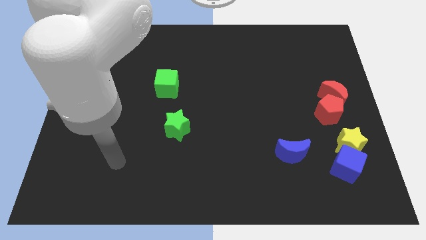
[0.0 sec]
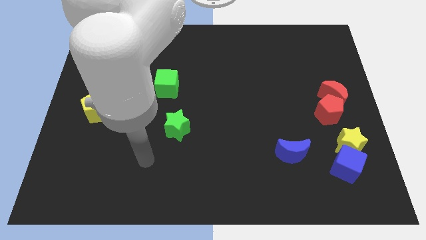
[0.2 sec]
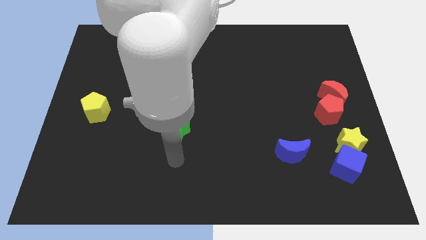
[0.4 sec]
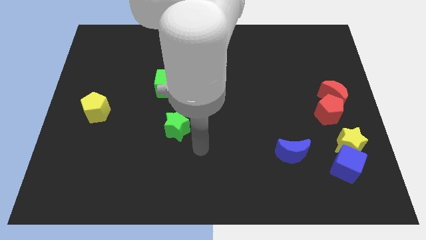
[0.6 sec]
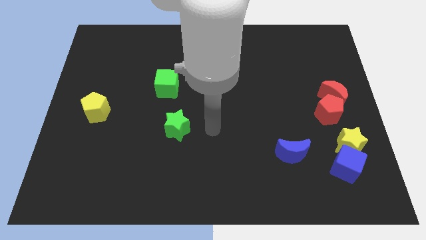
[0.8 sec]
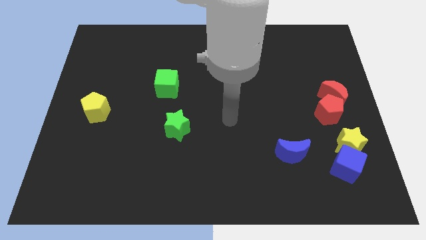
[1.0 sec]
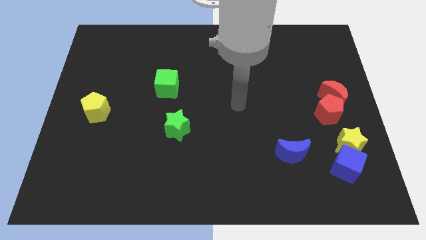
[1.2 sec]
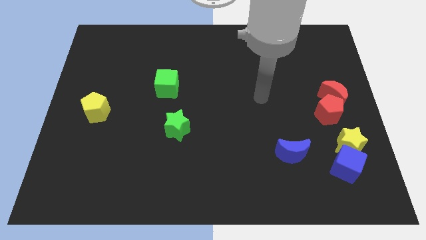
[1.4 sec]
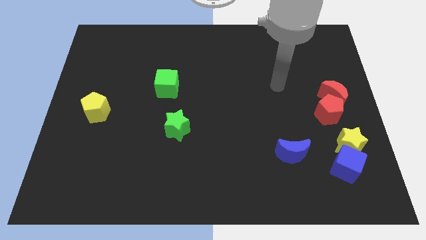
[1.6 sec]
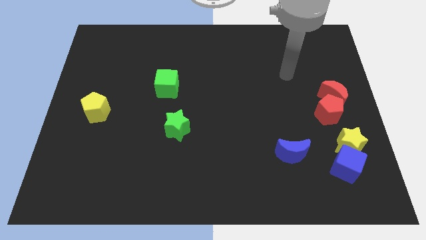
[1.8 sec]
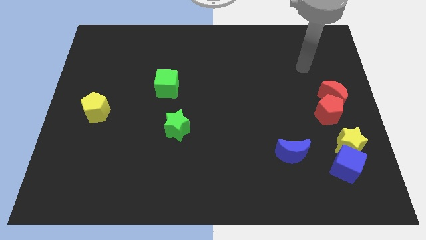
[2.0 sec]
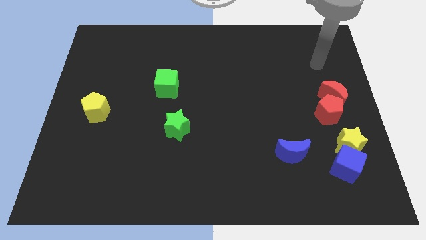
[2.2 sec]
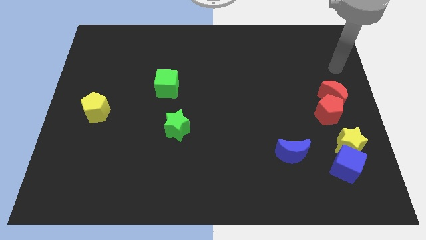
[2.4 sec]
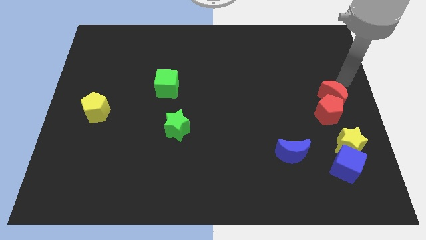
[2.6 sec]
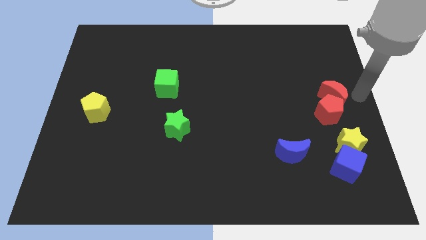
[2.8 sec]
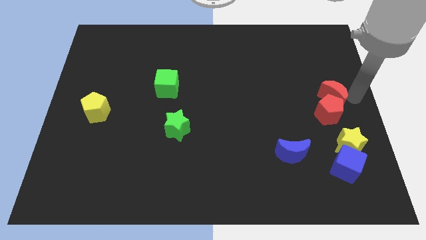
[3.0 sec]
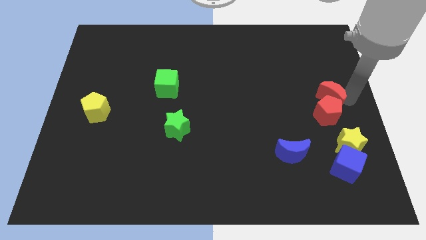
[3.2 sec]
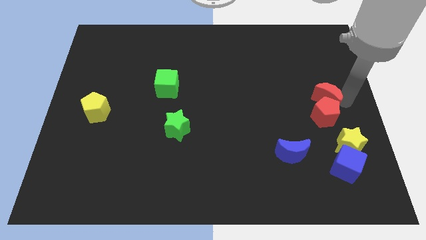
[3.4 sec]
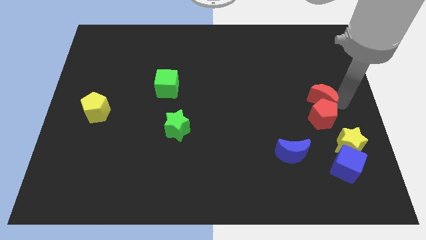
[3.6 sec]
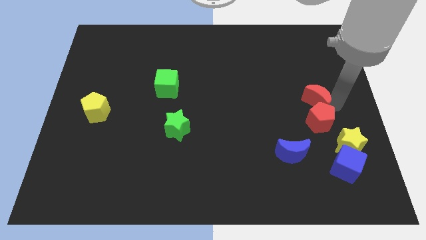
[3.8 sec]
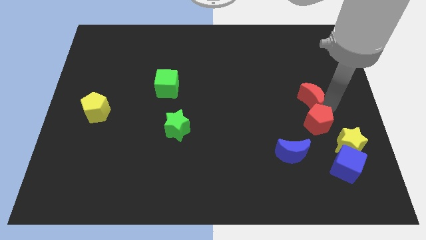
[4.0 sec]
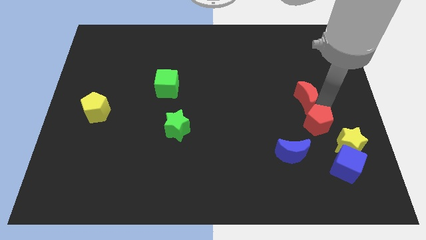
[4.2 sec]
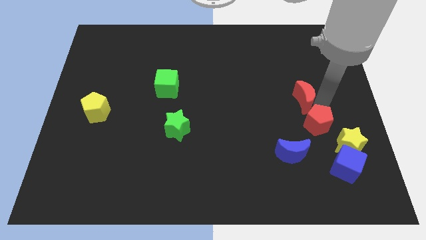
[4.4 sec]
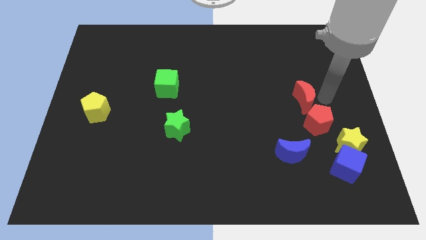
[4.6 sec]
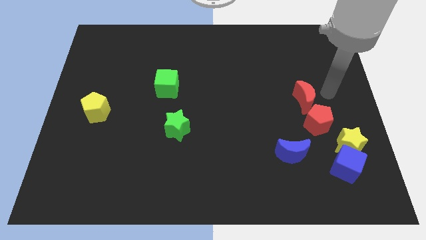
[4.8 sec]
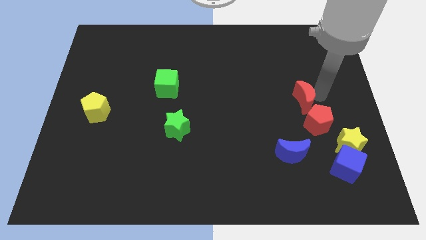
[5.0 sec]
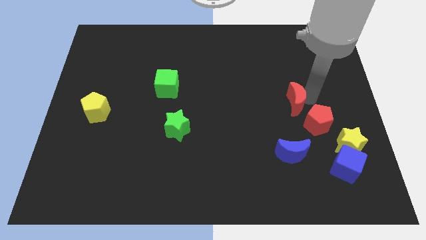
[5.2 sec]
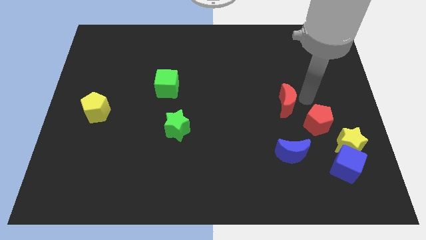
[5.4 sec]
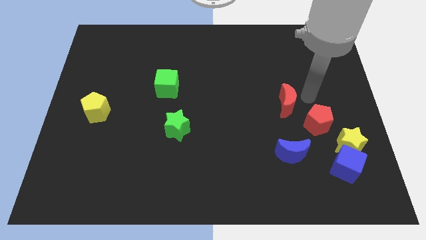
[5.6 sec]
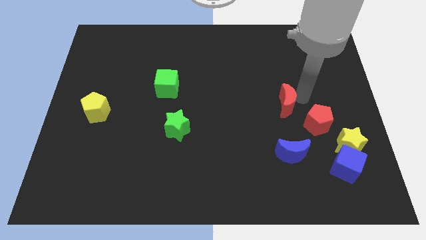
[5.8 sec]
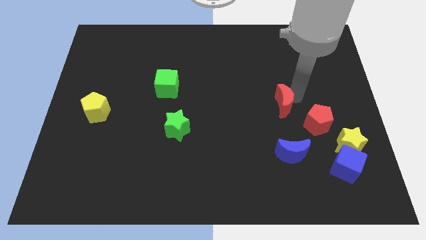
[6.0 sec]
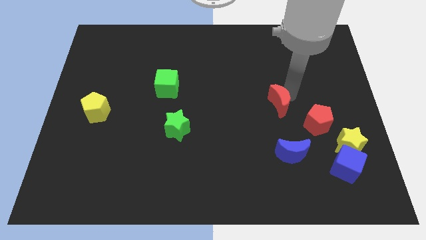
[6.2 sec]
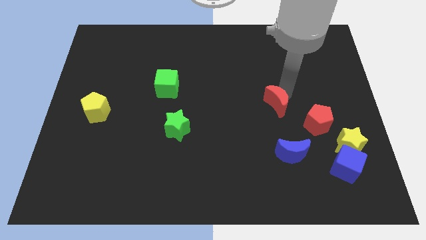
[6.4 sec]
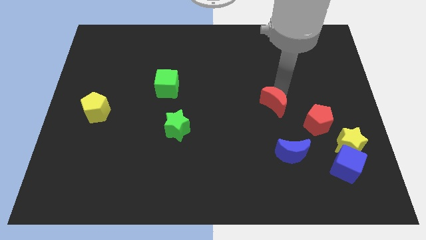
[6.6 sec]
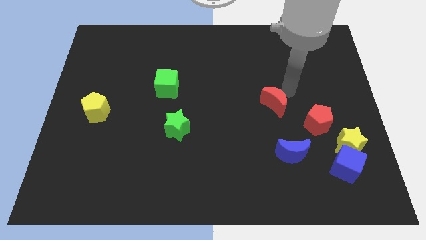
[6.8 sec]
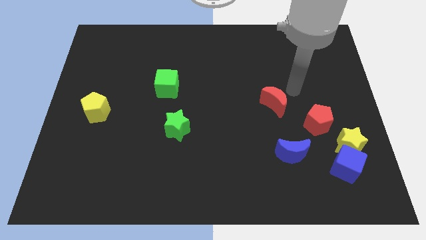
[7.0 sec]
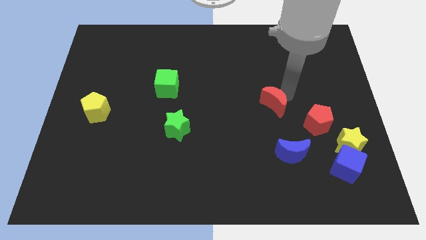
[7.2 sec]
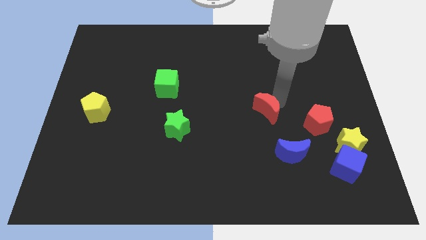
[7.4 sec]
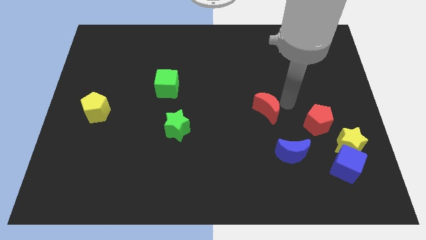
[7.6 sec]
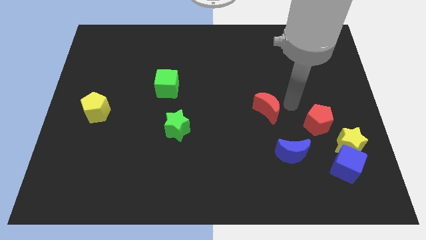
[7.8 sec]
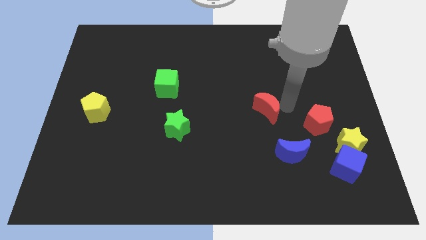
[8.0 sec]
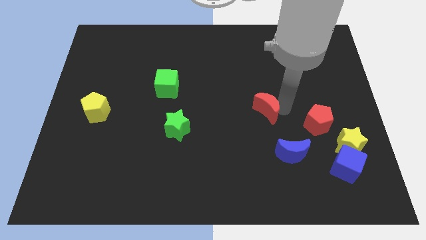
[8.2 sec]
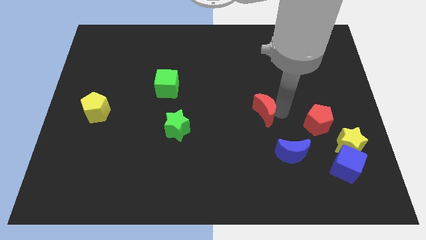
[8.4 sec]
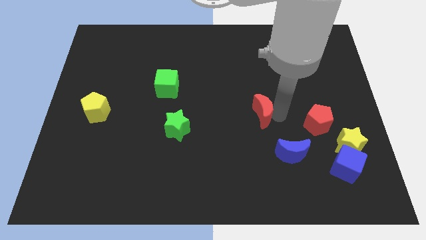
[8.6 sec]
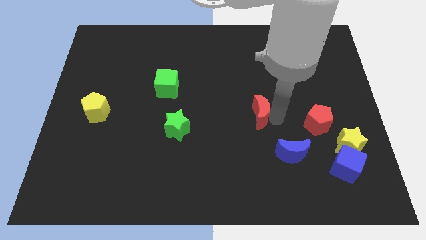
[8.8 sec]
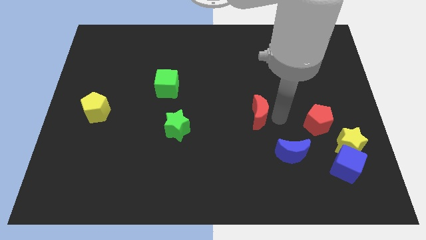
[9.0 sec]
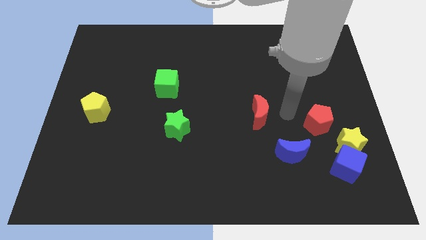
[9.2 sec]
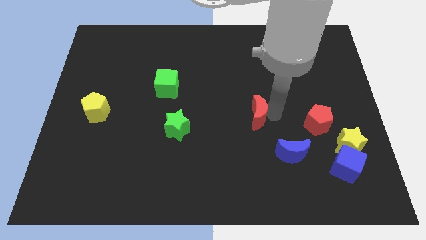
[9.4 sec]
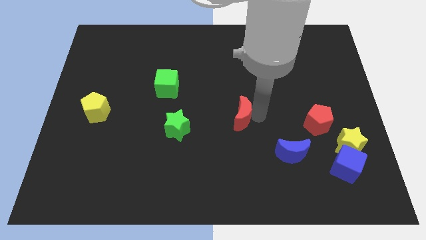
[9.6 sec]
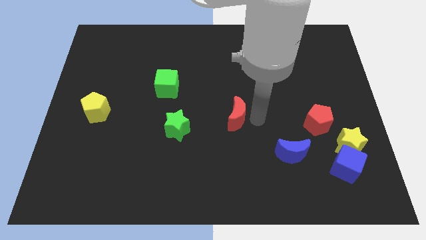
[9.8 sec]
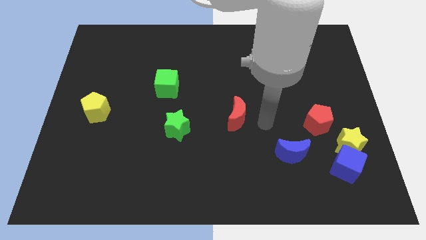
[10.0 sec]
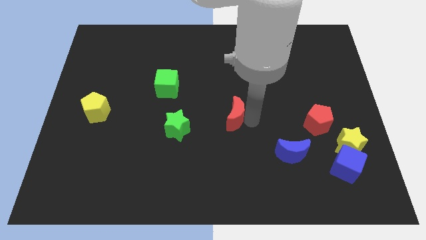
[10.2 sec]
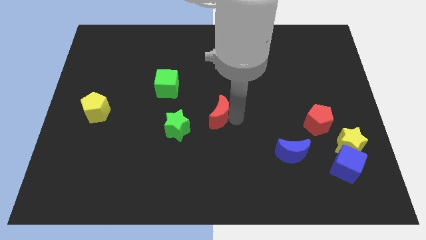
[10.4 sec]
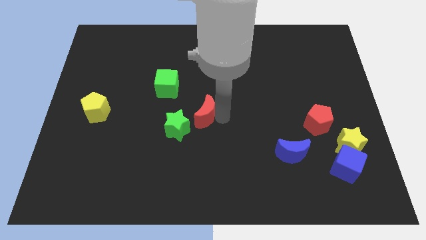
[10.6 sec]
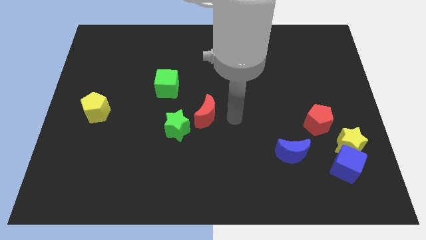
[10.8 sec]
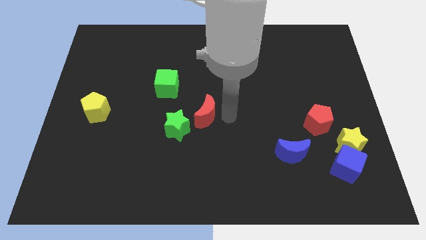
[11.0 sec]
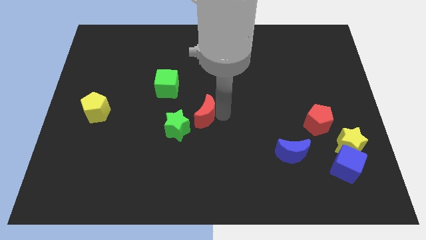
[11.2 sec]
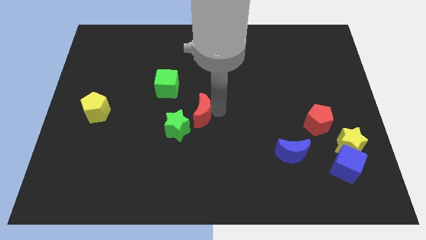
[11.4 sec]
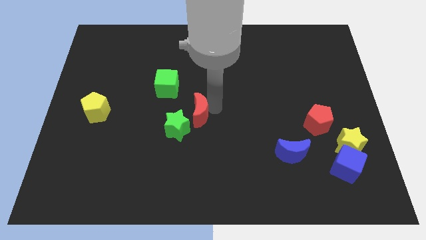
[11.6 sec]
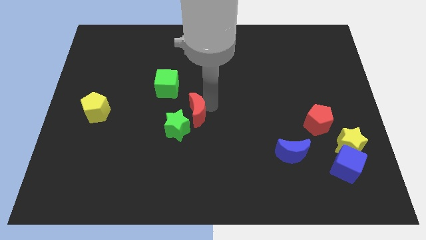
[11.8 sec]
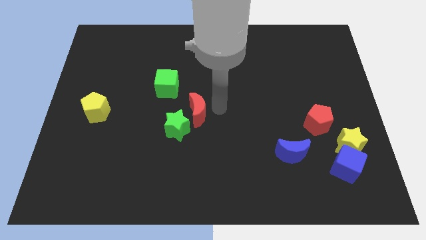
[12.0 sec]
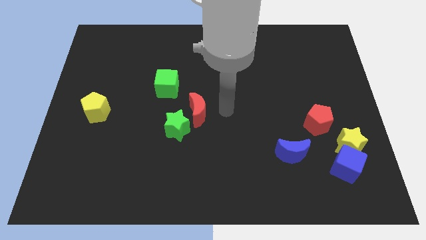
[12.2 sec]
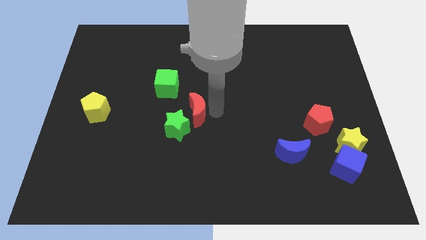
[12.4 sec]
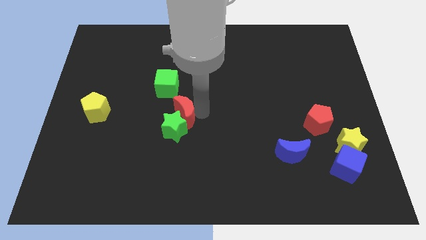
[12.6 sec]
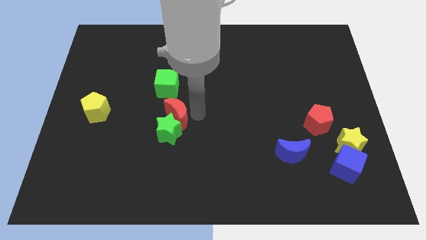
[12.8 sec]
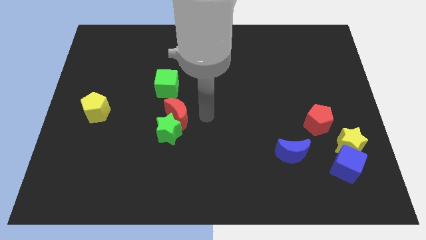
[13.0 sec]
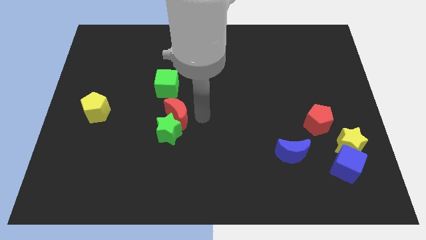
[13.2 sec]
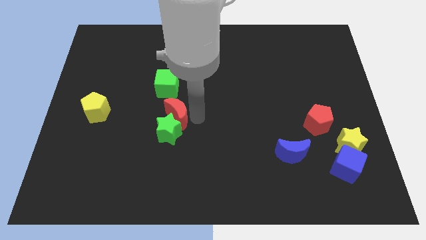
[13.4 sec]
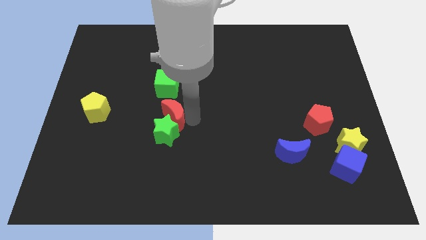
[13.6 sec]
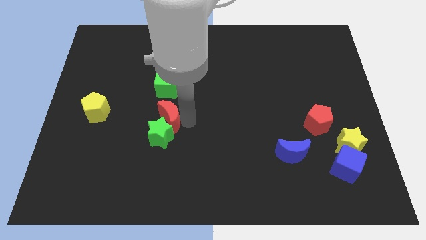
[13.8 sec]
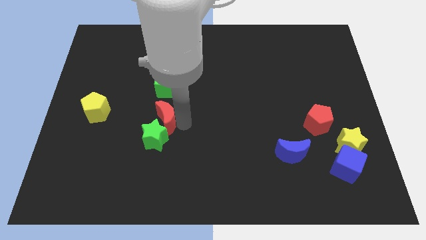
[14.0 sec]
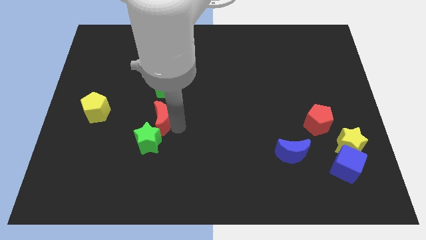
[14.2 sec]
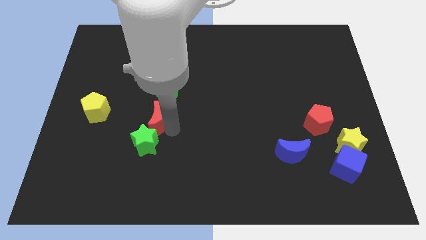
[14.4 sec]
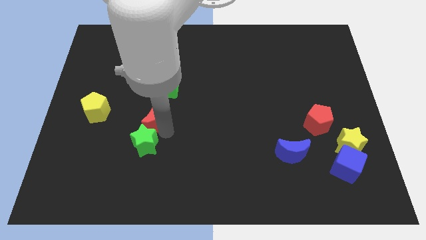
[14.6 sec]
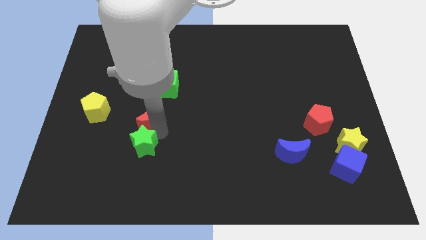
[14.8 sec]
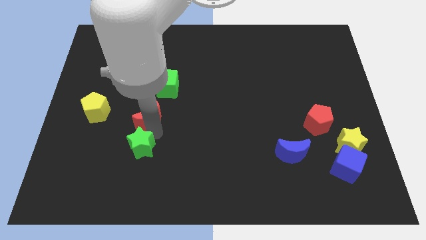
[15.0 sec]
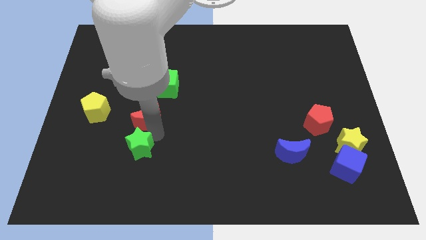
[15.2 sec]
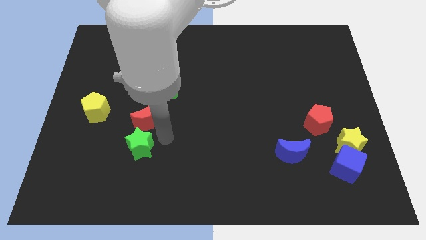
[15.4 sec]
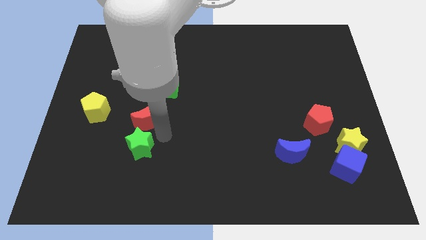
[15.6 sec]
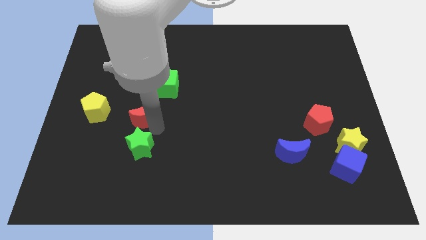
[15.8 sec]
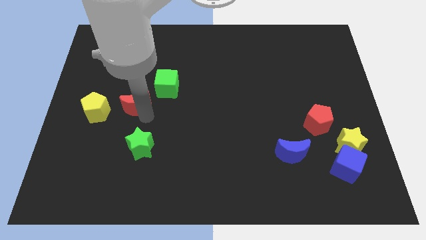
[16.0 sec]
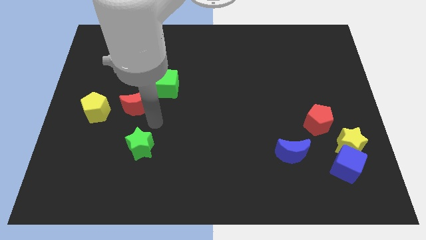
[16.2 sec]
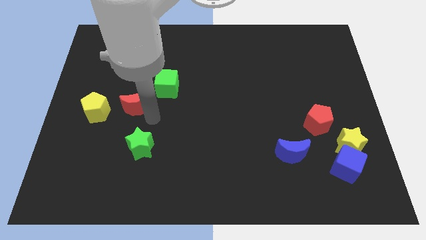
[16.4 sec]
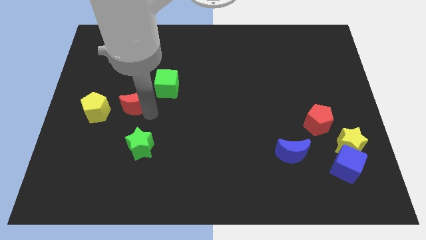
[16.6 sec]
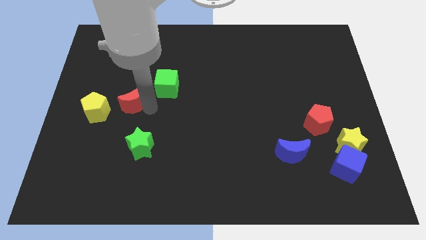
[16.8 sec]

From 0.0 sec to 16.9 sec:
move the red moon to the top right of the yellow pentagon
